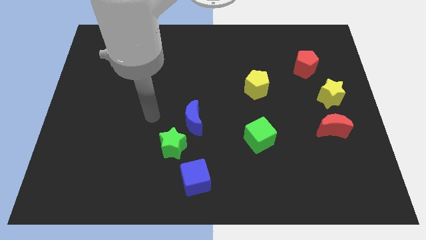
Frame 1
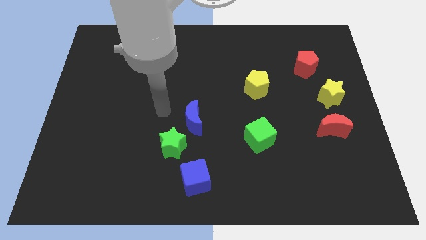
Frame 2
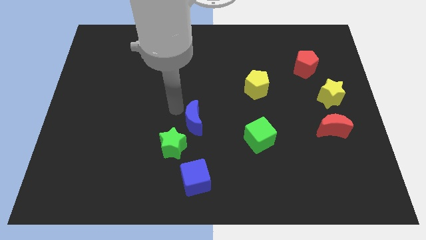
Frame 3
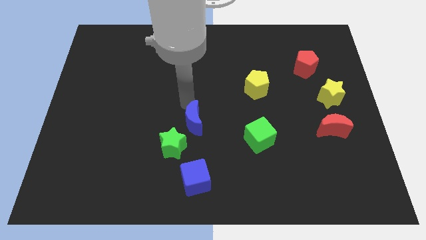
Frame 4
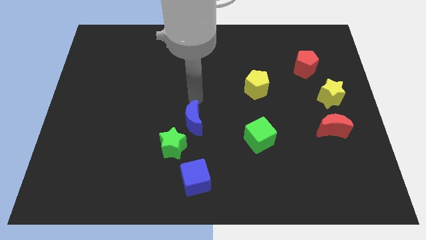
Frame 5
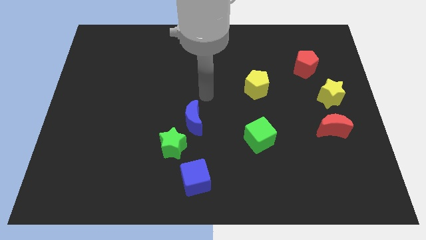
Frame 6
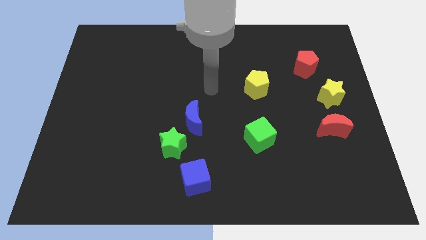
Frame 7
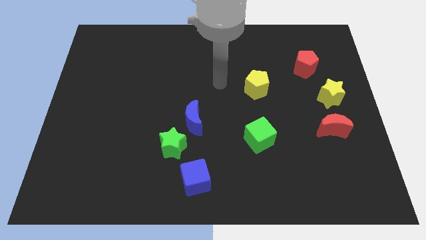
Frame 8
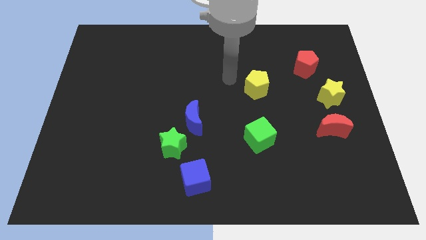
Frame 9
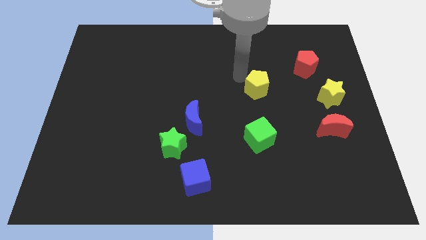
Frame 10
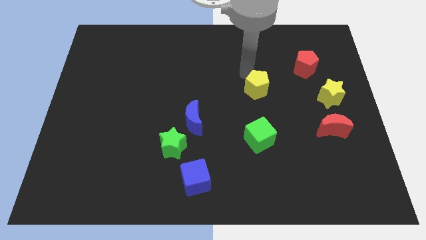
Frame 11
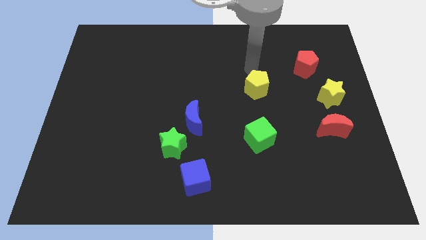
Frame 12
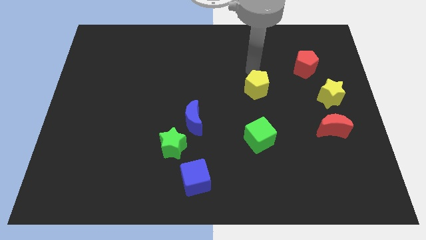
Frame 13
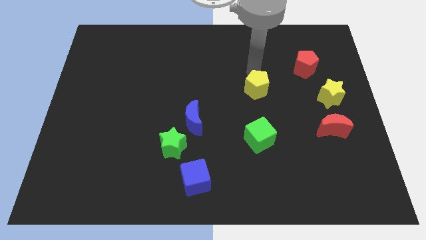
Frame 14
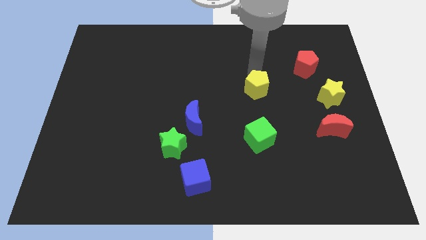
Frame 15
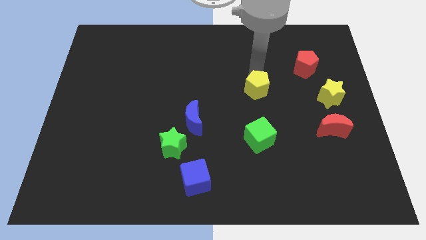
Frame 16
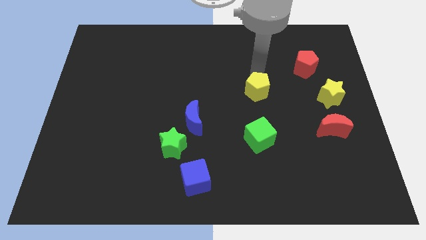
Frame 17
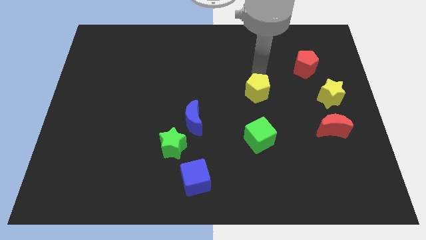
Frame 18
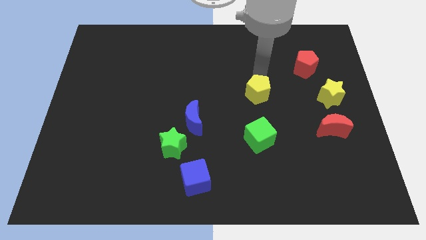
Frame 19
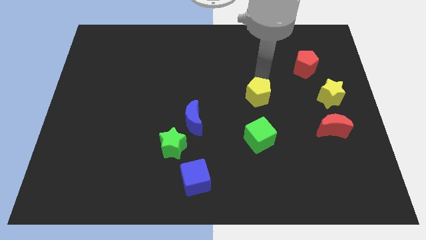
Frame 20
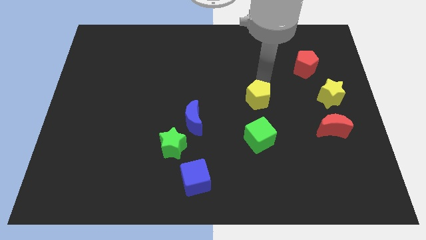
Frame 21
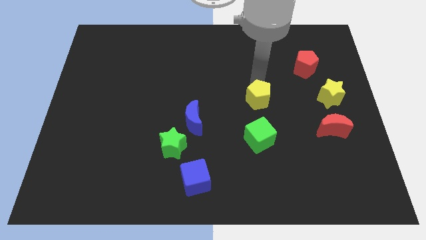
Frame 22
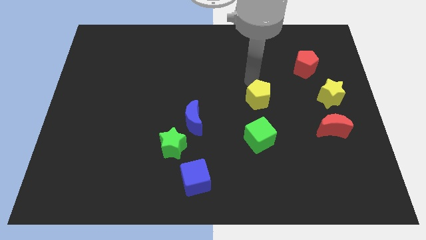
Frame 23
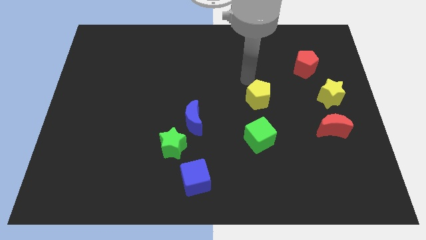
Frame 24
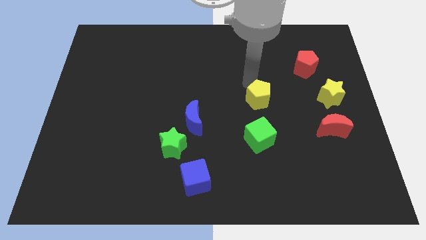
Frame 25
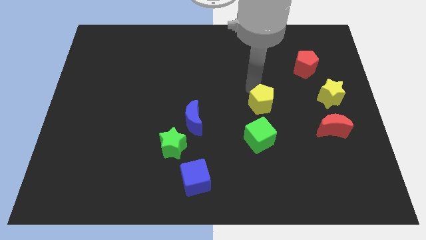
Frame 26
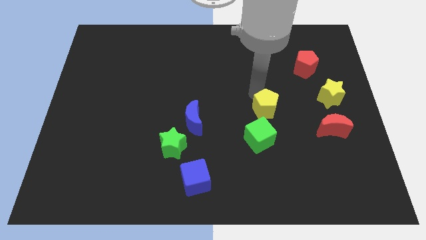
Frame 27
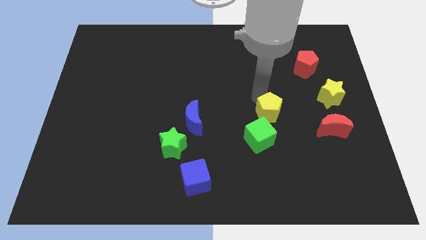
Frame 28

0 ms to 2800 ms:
slightly slide the yellow pentagon downwards

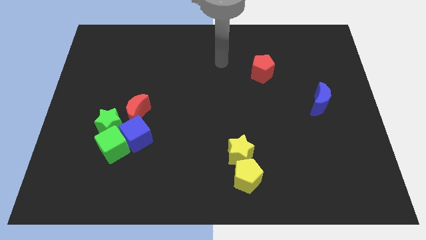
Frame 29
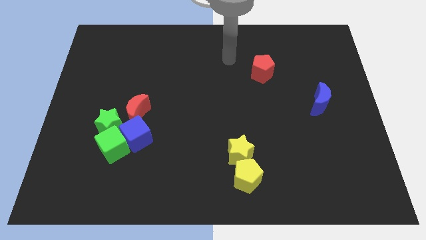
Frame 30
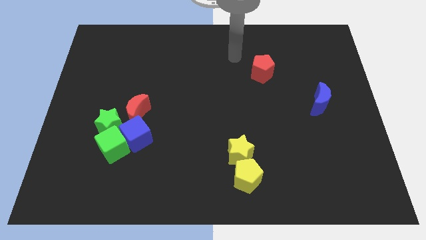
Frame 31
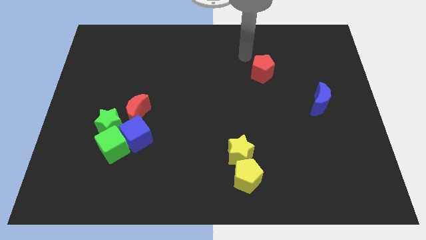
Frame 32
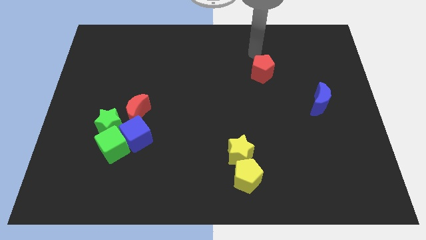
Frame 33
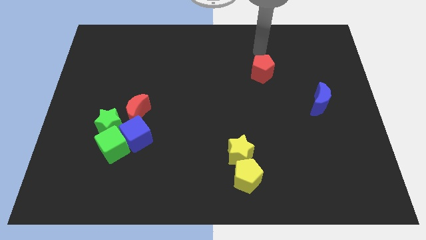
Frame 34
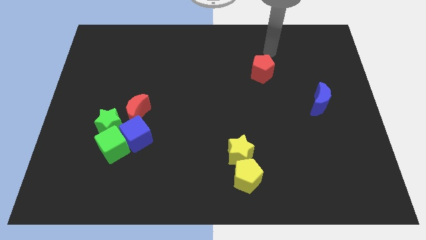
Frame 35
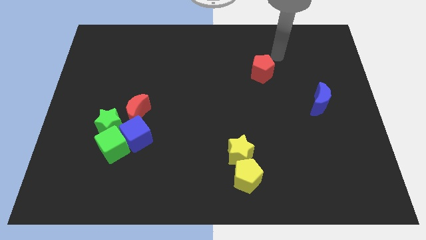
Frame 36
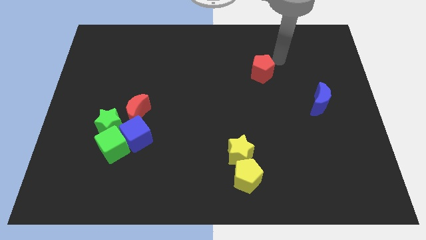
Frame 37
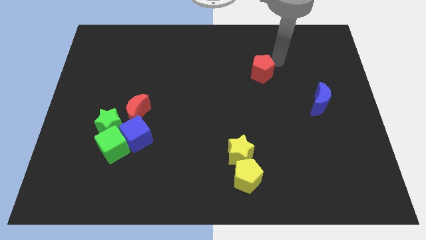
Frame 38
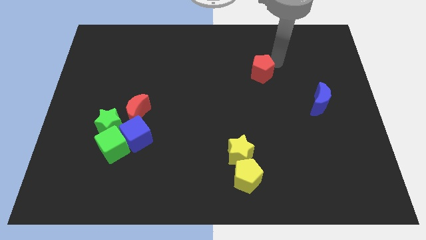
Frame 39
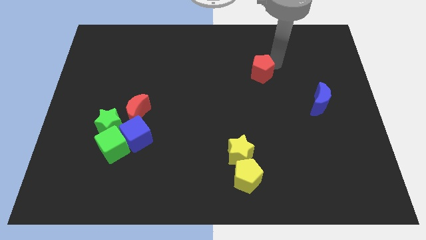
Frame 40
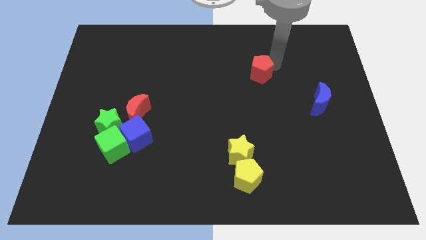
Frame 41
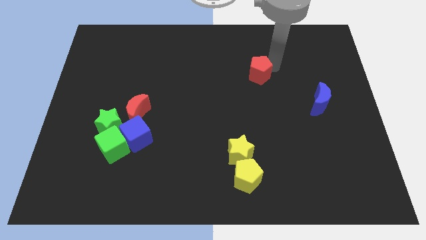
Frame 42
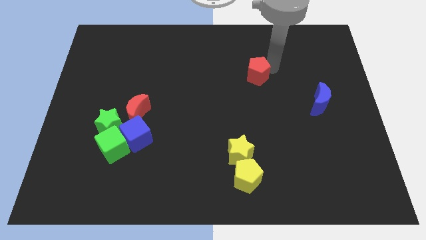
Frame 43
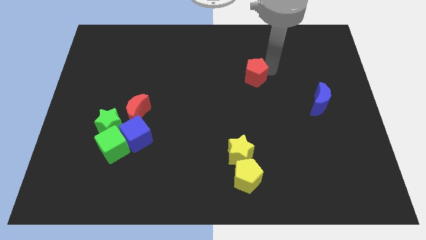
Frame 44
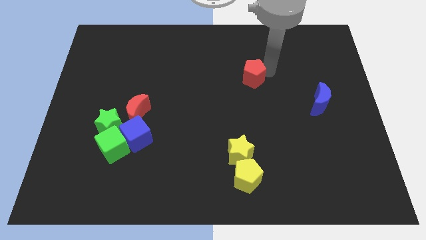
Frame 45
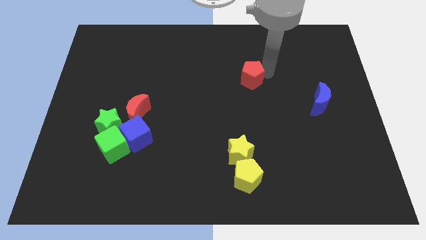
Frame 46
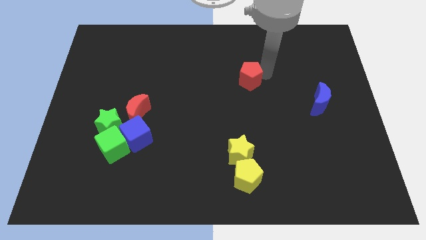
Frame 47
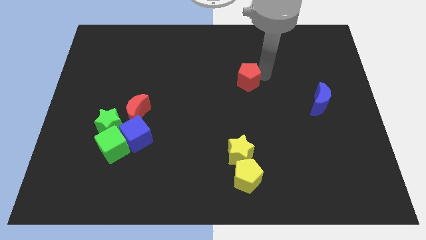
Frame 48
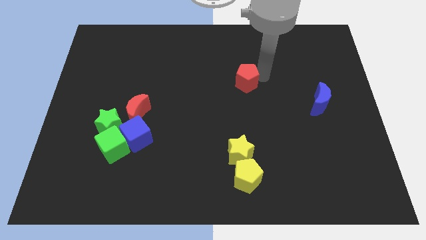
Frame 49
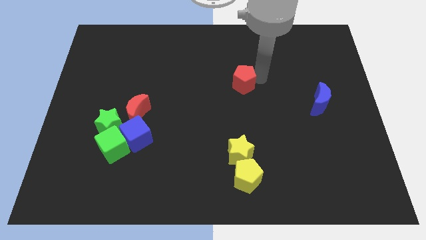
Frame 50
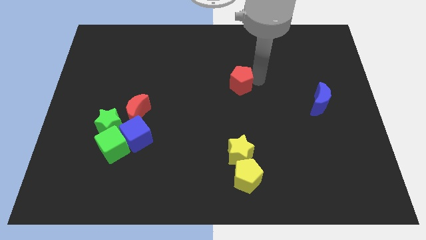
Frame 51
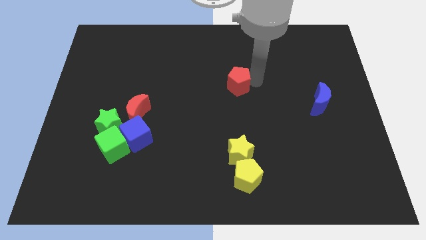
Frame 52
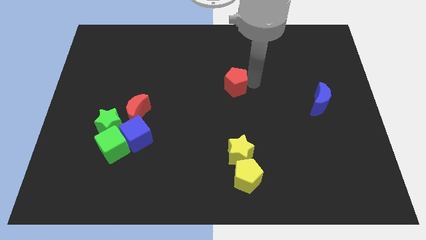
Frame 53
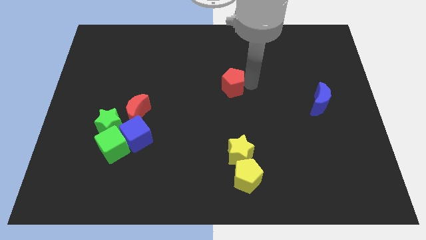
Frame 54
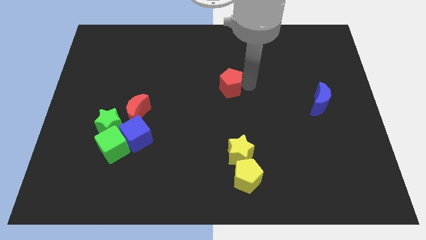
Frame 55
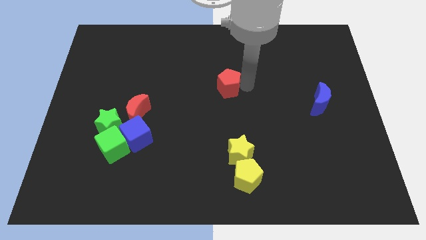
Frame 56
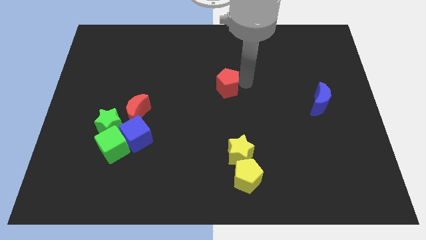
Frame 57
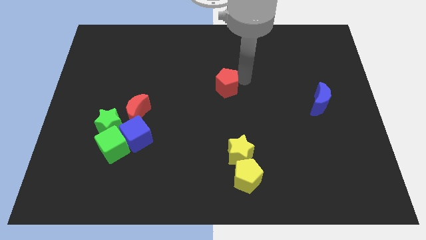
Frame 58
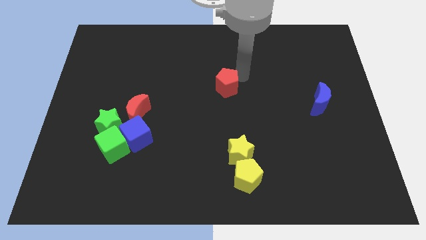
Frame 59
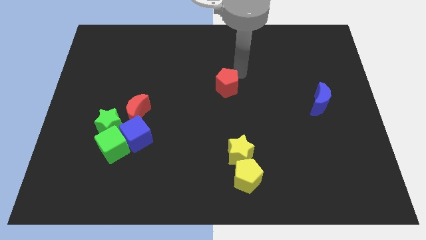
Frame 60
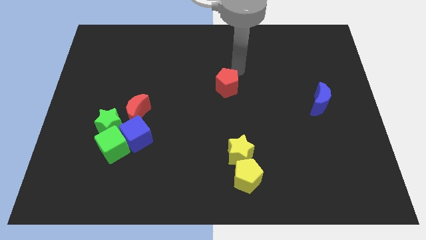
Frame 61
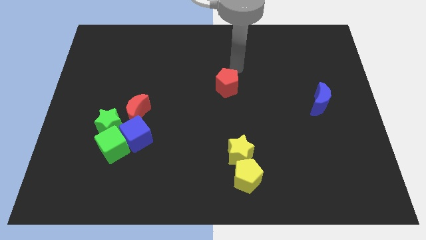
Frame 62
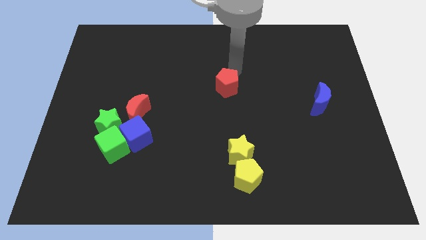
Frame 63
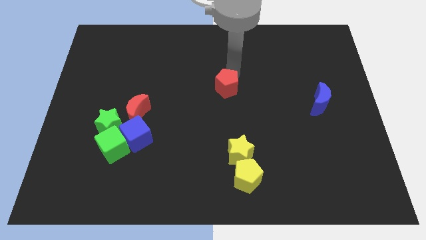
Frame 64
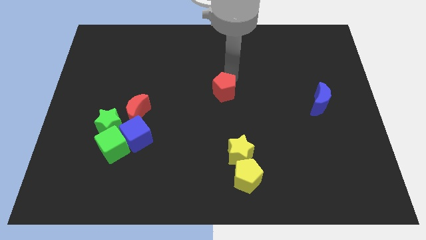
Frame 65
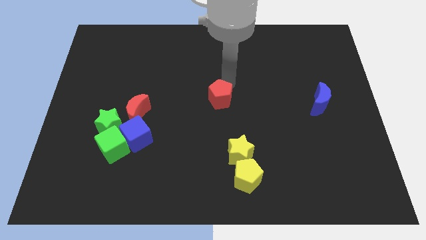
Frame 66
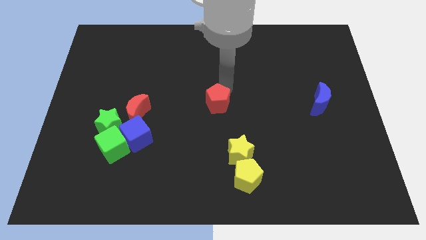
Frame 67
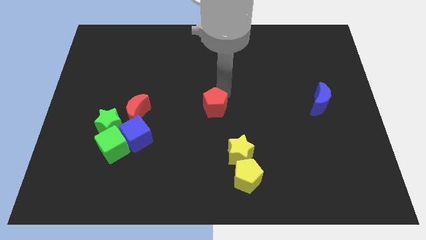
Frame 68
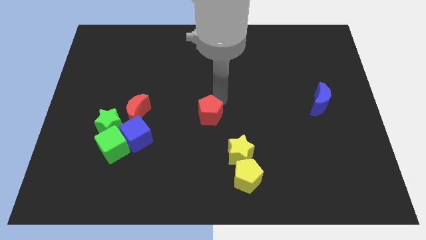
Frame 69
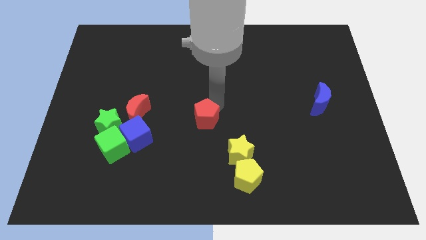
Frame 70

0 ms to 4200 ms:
move the red pentagon down and left

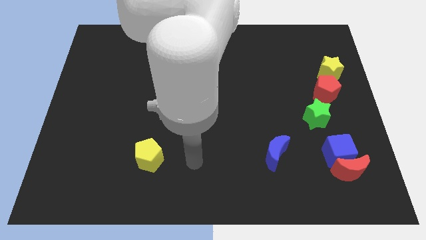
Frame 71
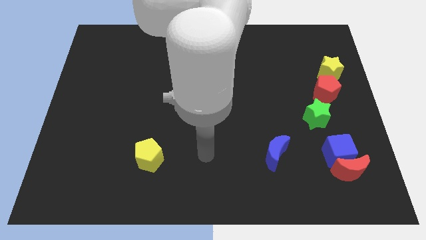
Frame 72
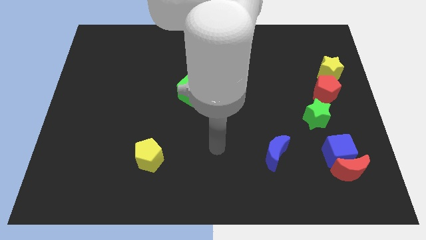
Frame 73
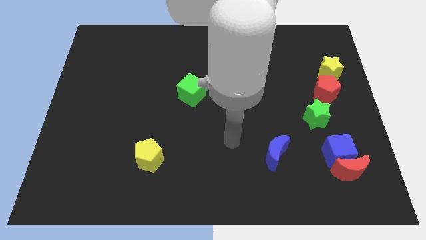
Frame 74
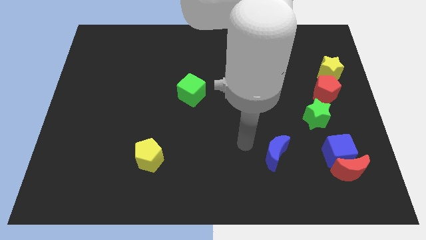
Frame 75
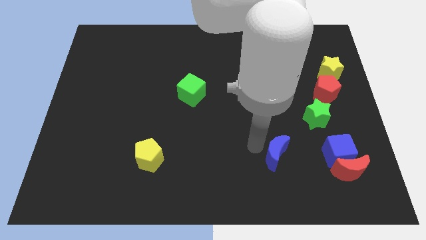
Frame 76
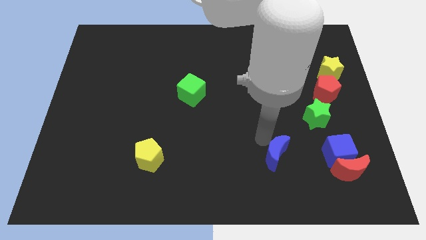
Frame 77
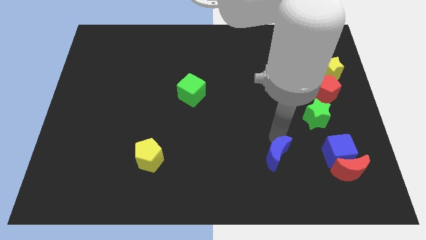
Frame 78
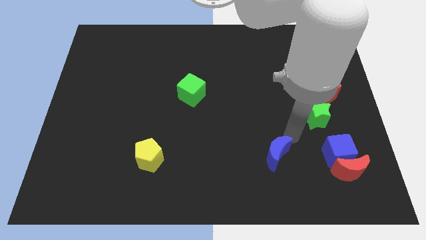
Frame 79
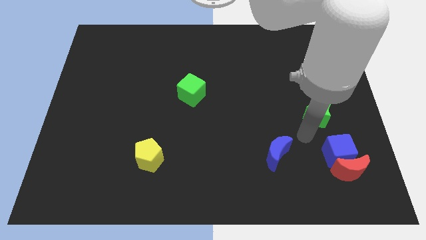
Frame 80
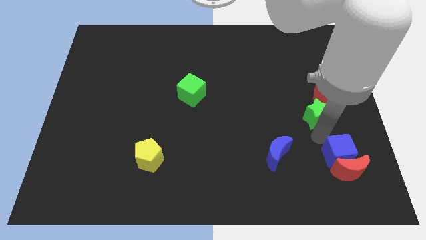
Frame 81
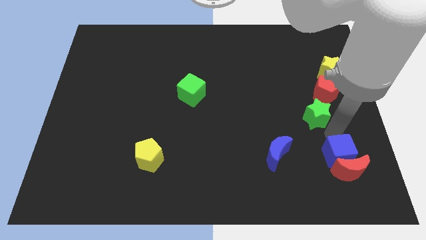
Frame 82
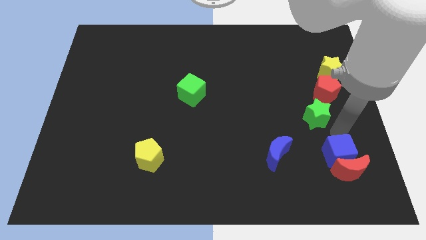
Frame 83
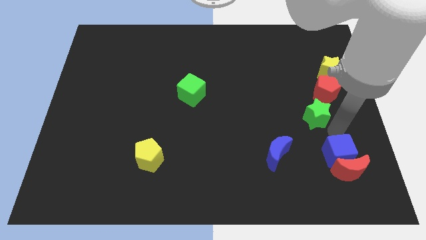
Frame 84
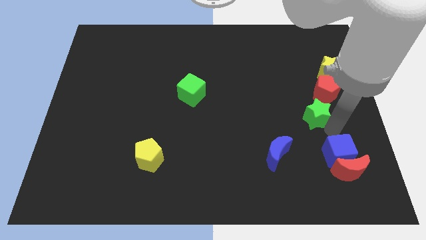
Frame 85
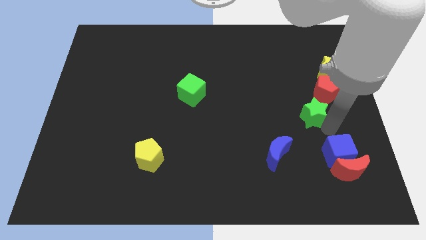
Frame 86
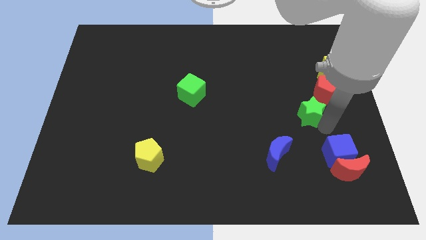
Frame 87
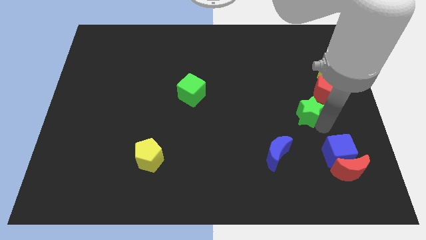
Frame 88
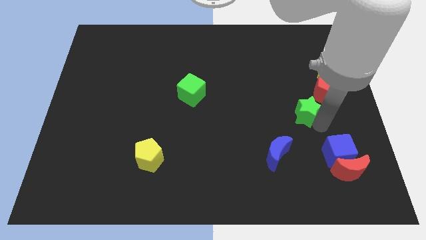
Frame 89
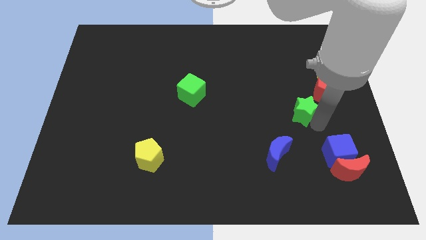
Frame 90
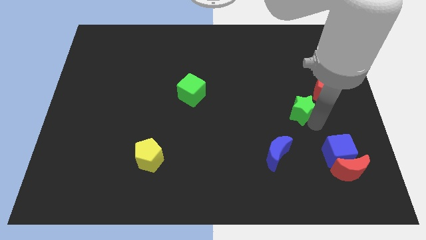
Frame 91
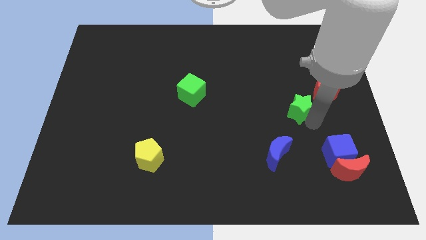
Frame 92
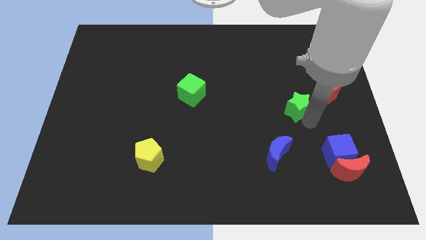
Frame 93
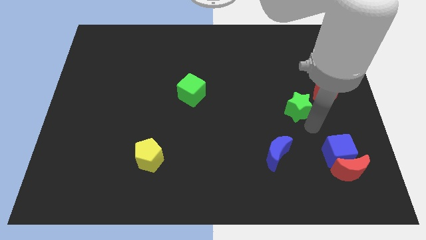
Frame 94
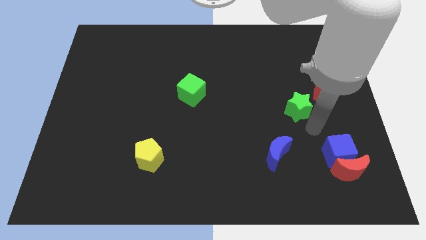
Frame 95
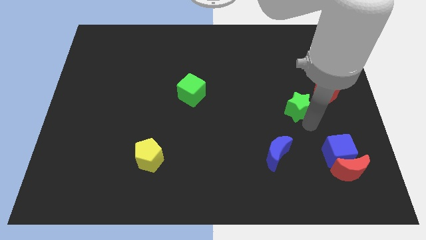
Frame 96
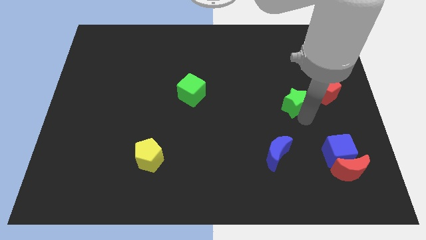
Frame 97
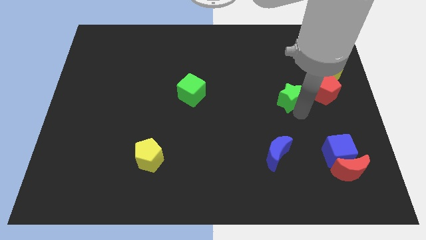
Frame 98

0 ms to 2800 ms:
slightly move the green star diagonally upwards and to the left
